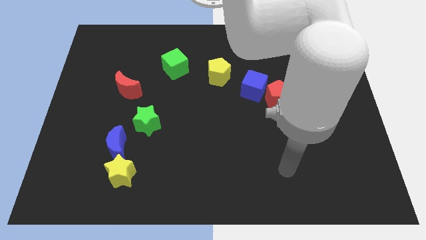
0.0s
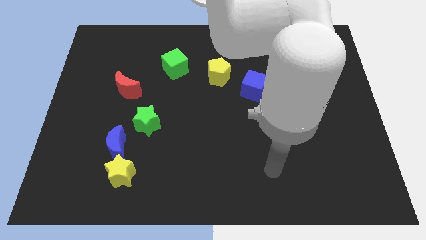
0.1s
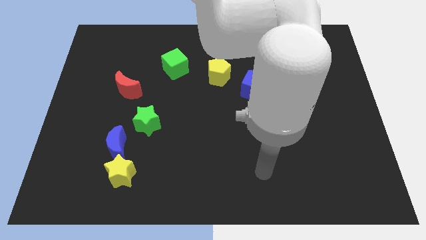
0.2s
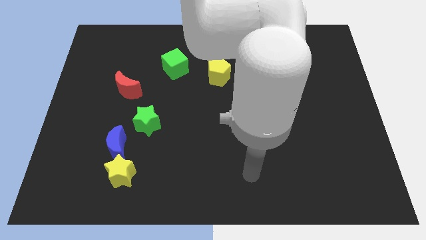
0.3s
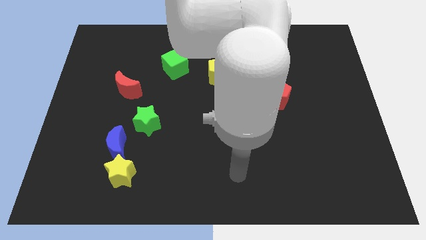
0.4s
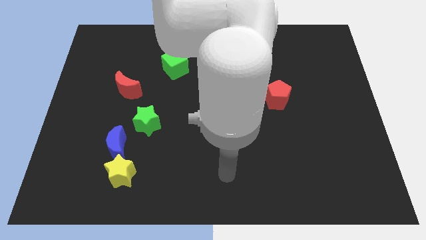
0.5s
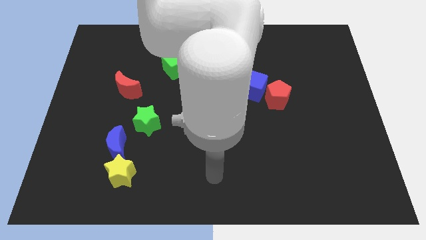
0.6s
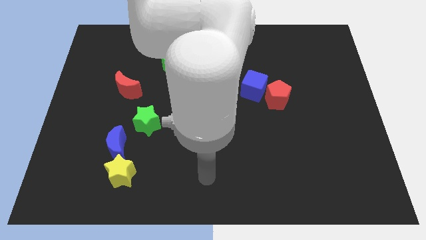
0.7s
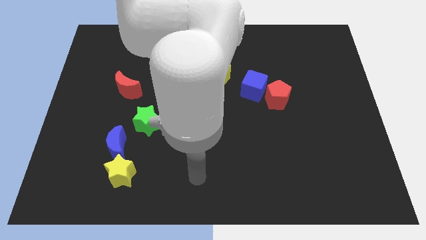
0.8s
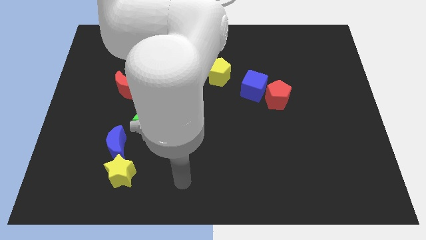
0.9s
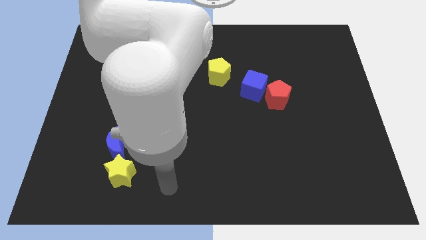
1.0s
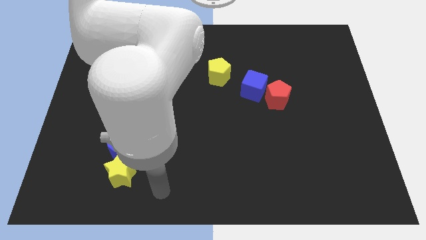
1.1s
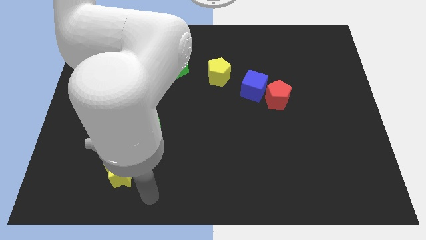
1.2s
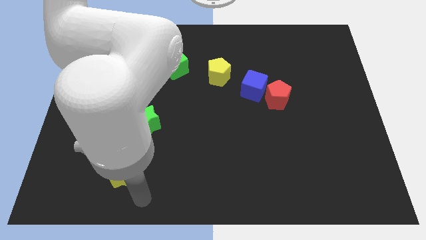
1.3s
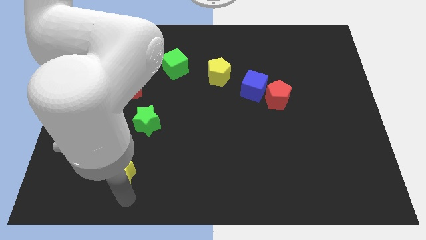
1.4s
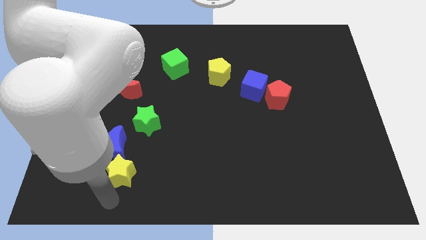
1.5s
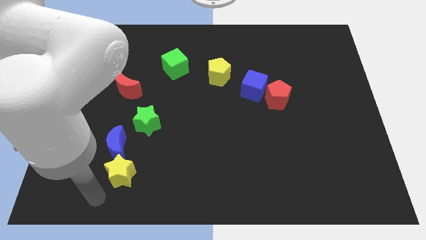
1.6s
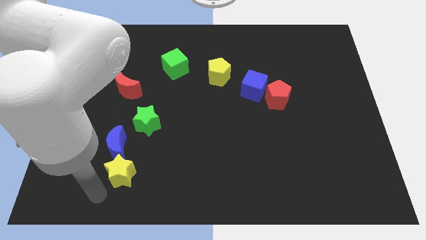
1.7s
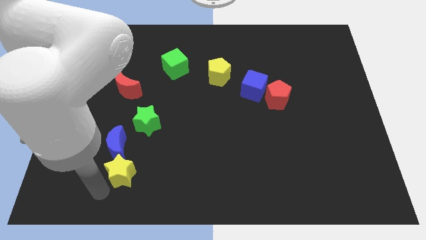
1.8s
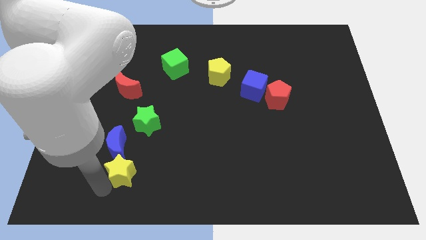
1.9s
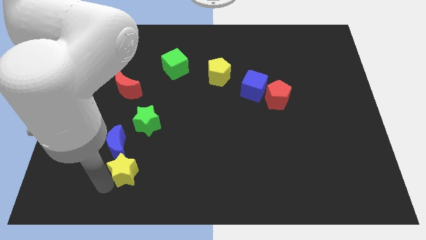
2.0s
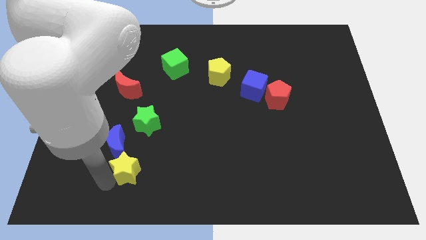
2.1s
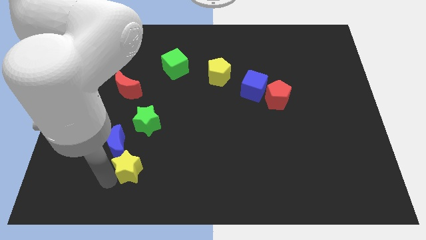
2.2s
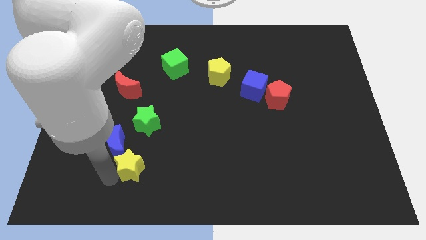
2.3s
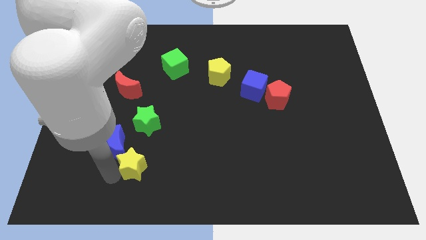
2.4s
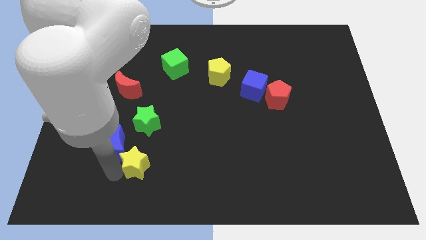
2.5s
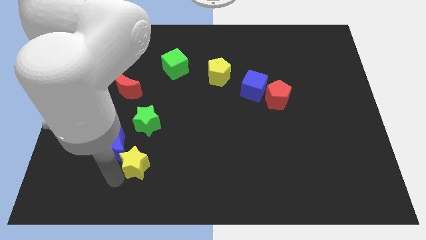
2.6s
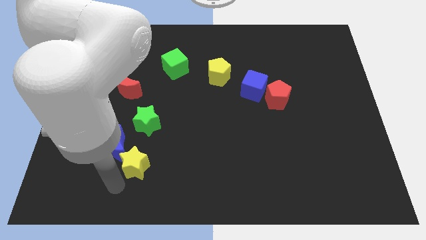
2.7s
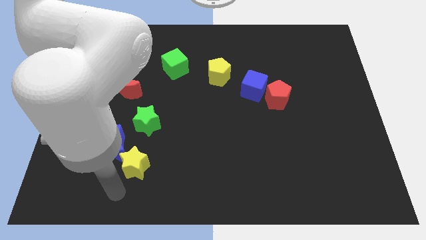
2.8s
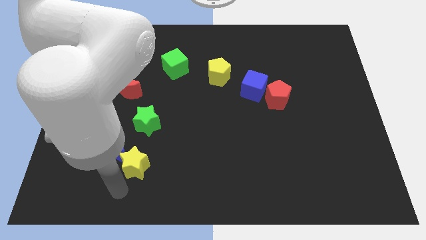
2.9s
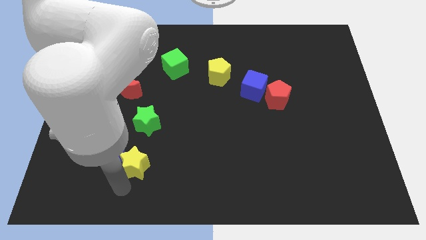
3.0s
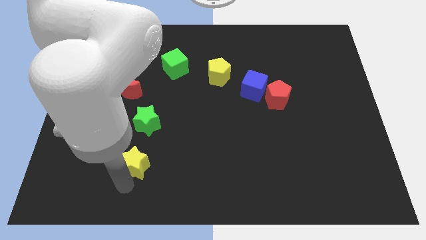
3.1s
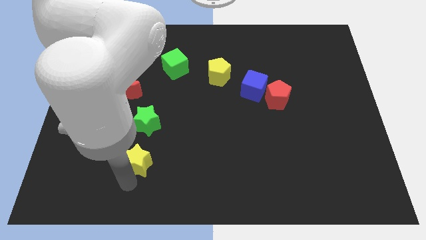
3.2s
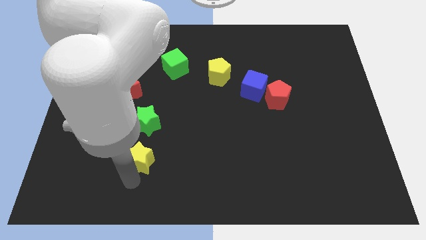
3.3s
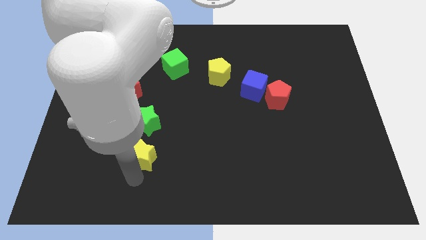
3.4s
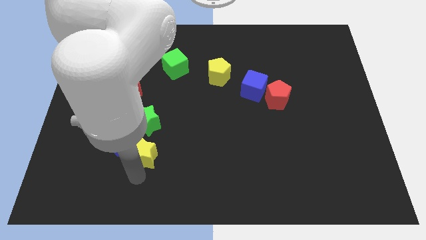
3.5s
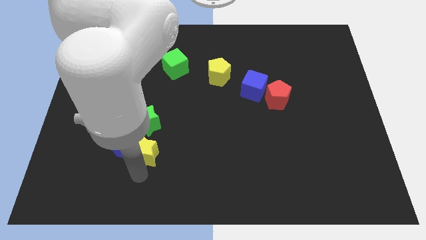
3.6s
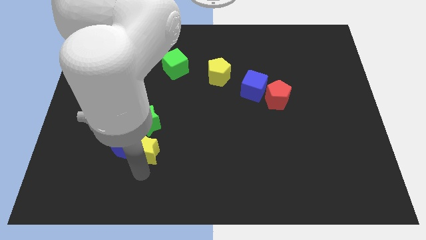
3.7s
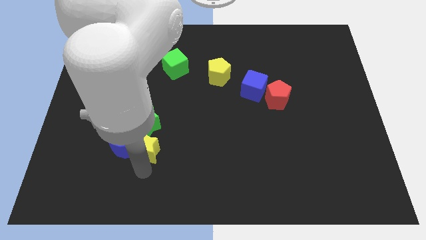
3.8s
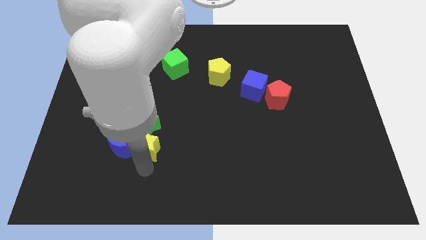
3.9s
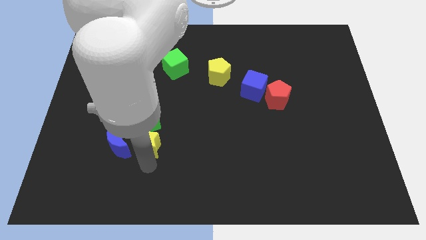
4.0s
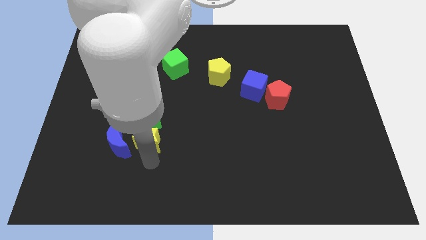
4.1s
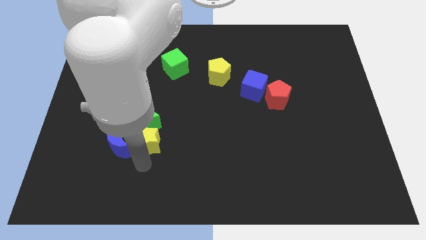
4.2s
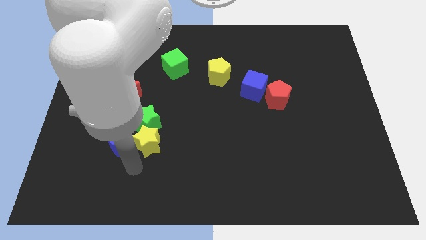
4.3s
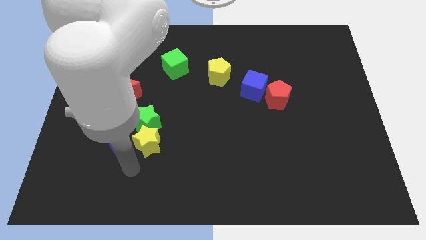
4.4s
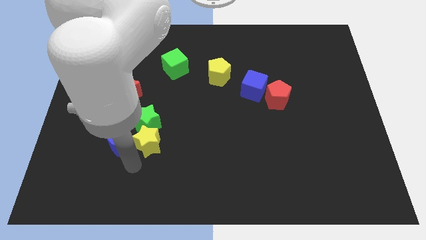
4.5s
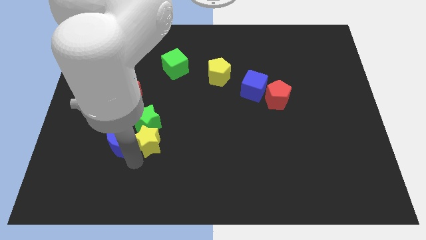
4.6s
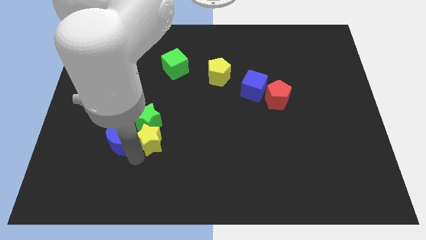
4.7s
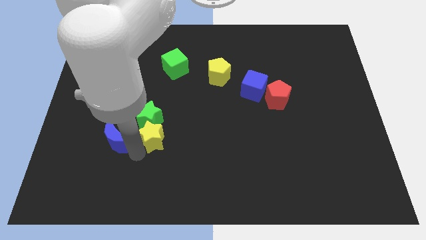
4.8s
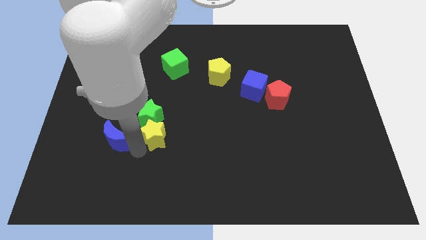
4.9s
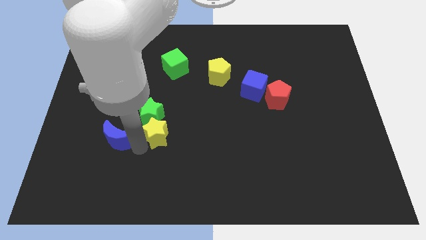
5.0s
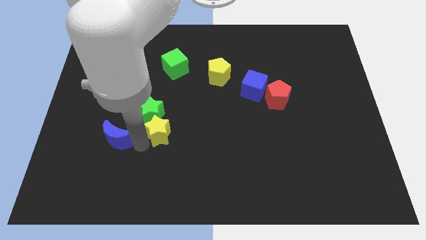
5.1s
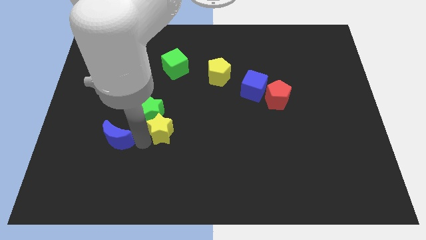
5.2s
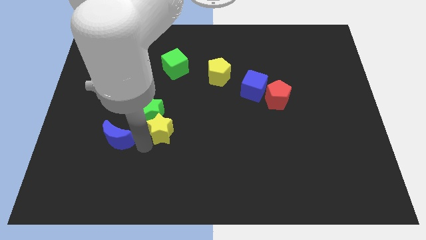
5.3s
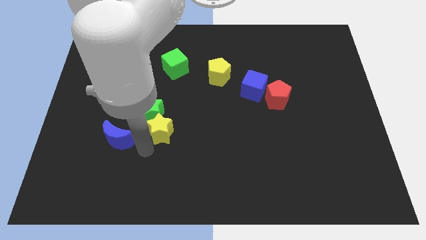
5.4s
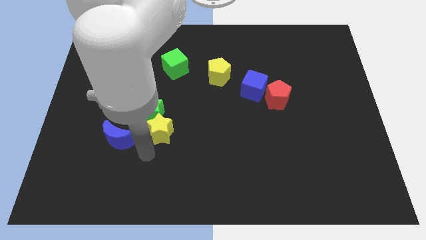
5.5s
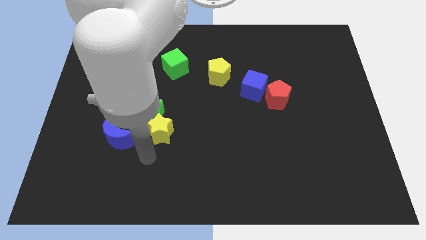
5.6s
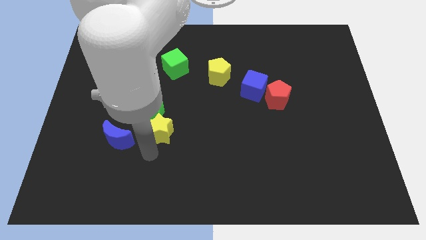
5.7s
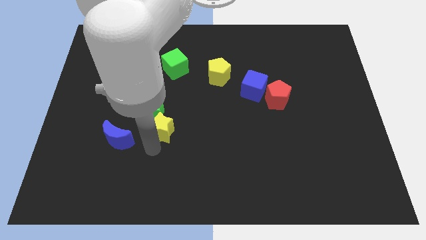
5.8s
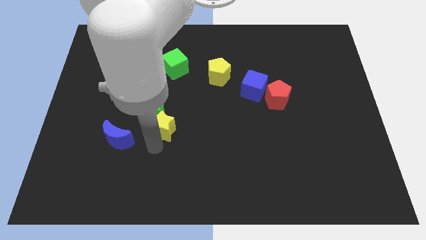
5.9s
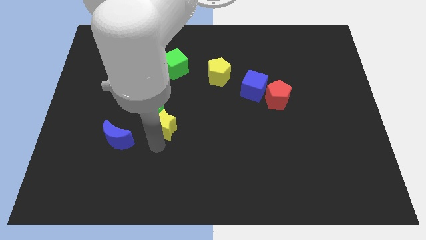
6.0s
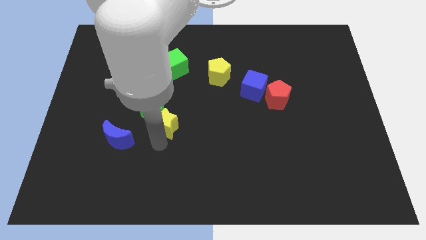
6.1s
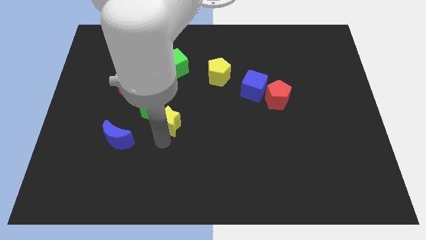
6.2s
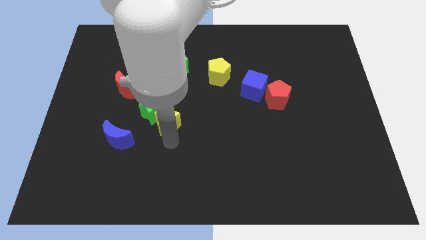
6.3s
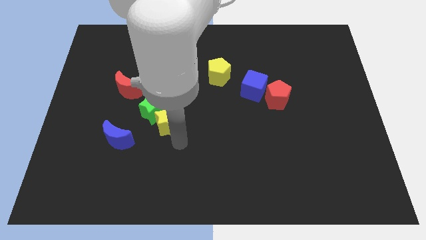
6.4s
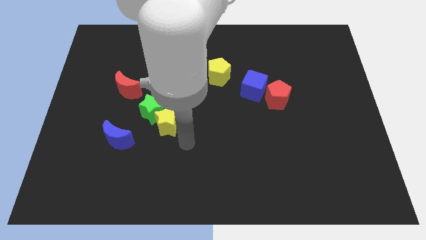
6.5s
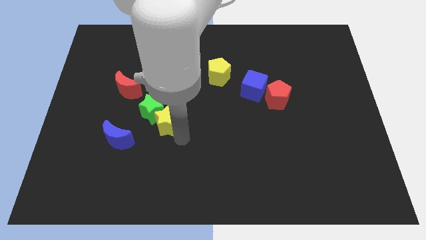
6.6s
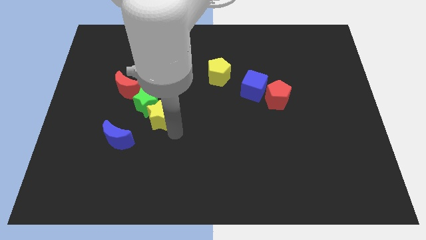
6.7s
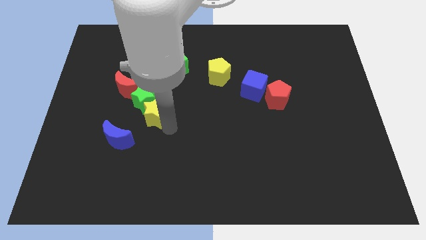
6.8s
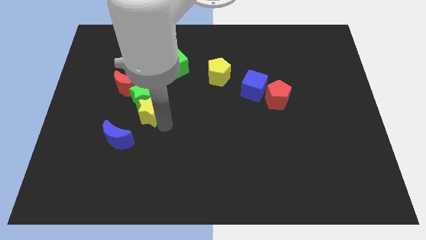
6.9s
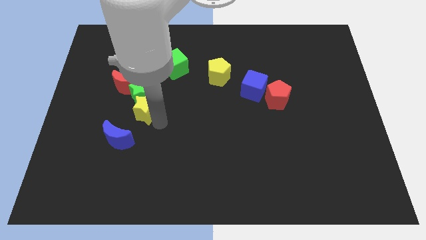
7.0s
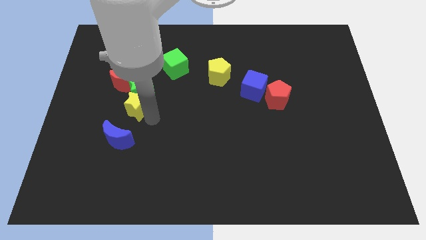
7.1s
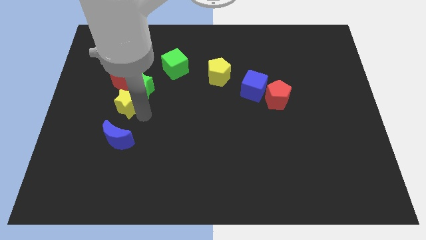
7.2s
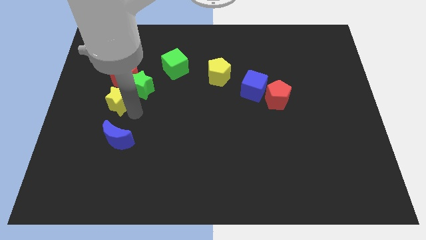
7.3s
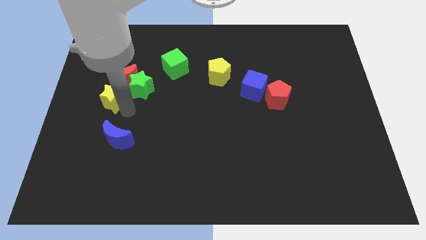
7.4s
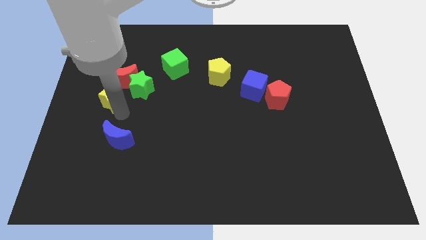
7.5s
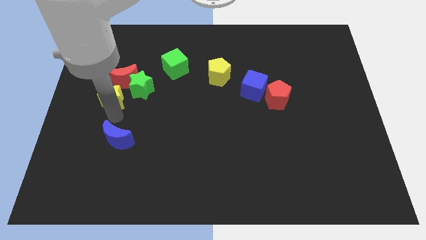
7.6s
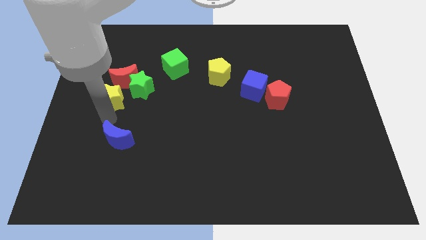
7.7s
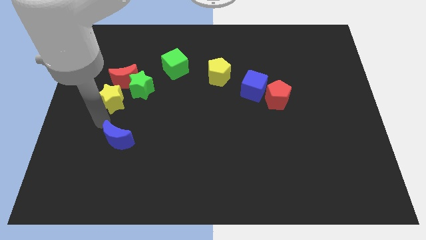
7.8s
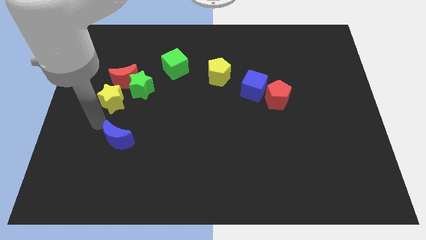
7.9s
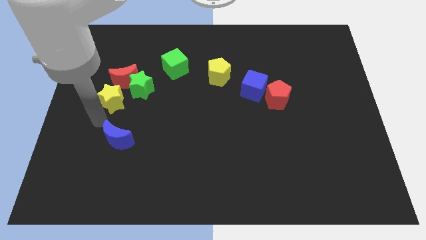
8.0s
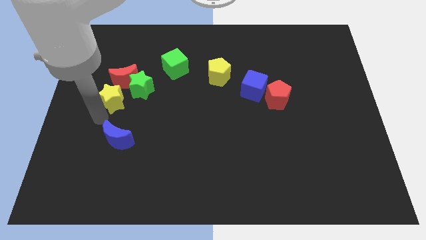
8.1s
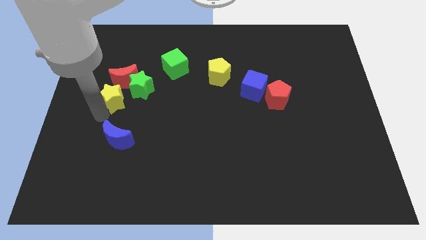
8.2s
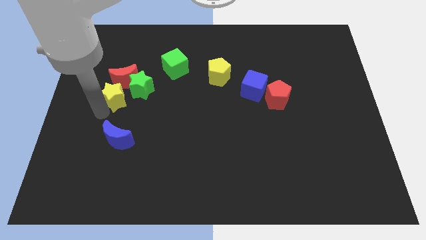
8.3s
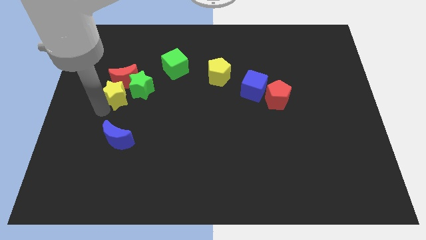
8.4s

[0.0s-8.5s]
move the yellow star close to the red moon
